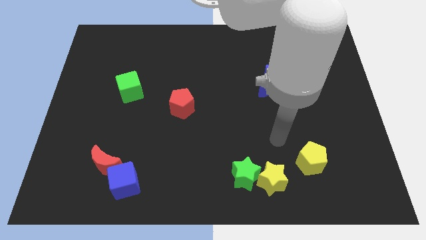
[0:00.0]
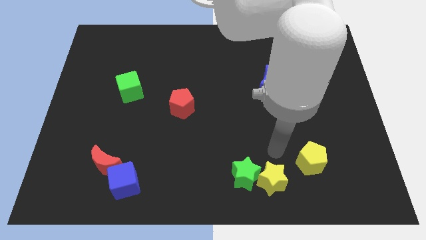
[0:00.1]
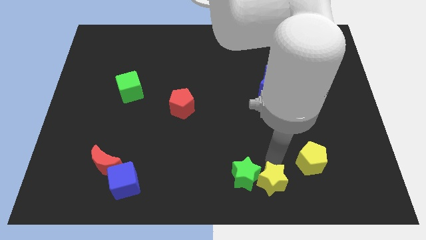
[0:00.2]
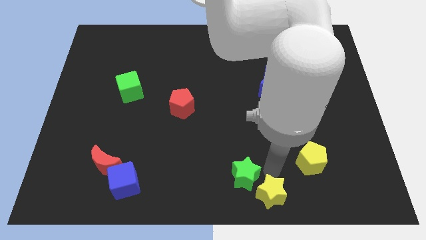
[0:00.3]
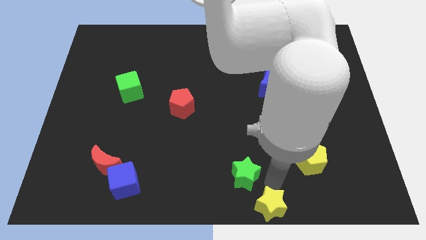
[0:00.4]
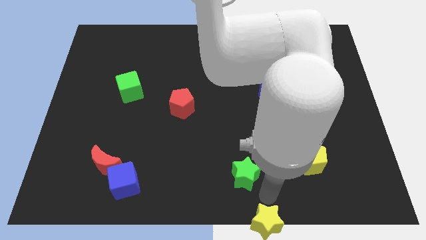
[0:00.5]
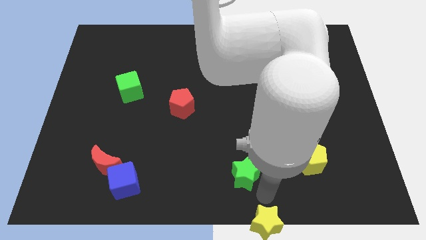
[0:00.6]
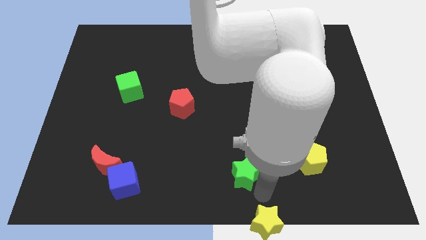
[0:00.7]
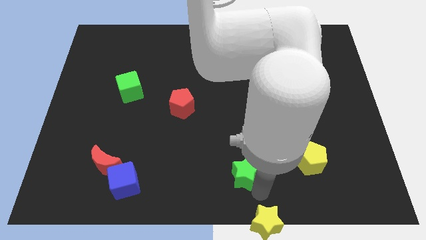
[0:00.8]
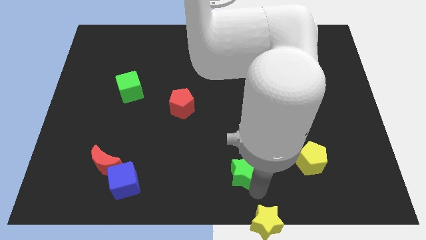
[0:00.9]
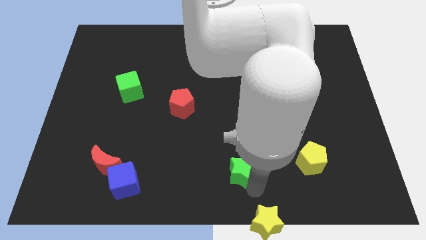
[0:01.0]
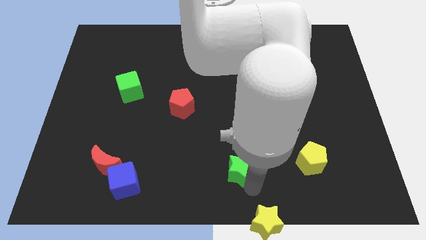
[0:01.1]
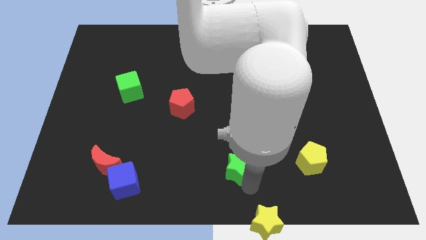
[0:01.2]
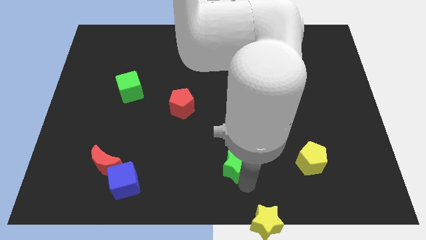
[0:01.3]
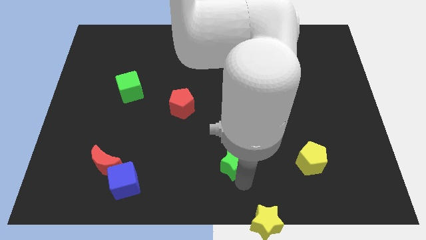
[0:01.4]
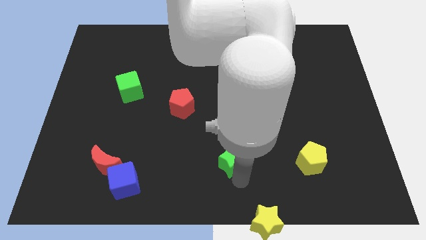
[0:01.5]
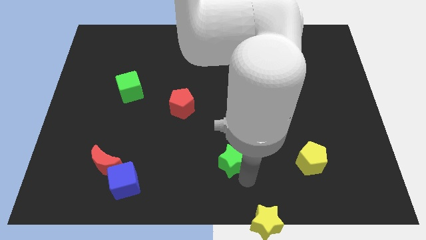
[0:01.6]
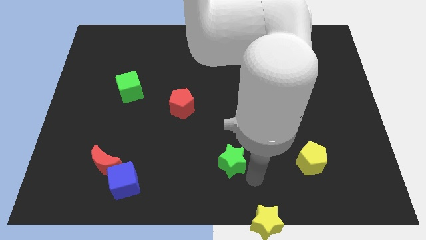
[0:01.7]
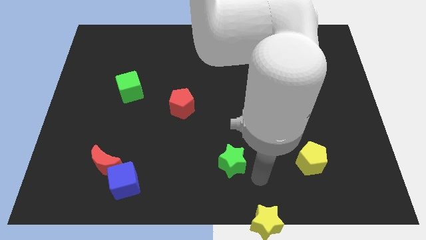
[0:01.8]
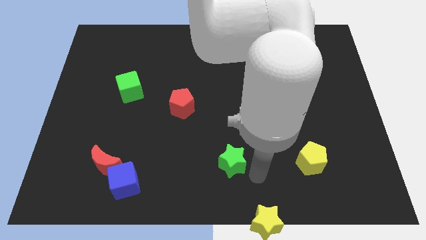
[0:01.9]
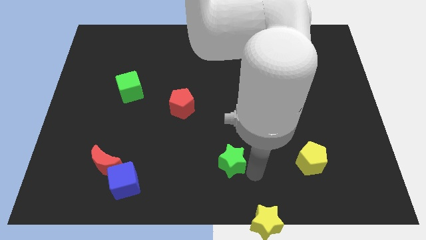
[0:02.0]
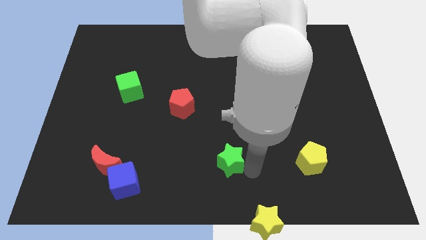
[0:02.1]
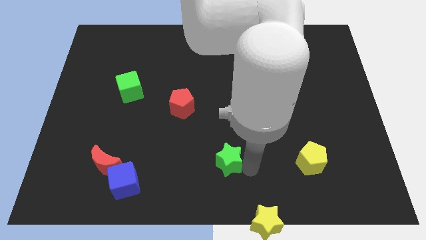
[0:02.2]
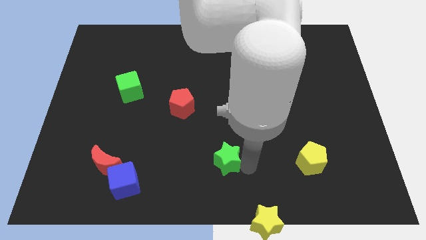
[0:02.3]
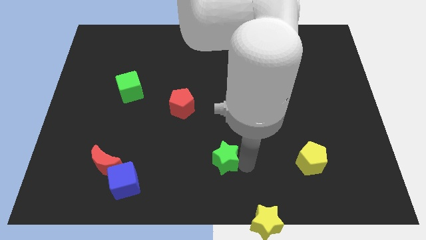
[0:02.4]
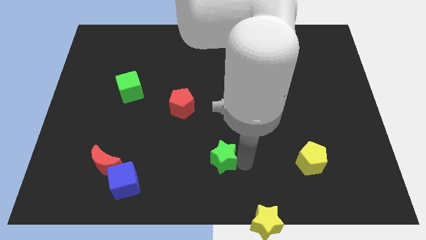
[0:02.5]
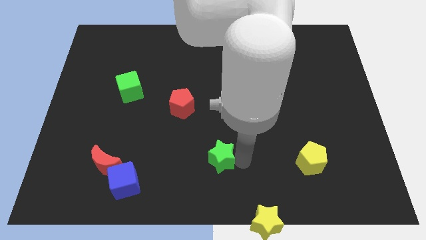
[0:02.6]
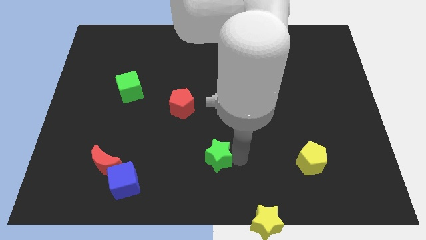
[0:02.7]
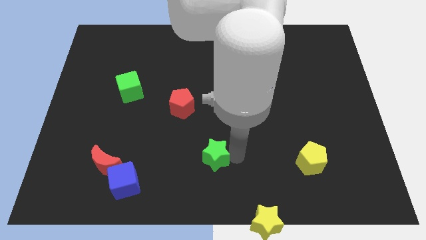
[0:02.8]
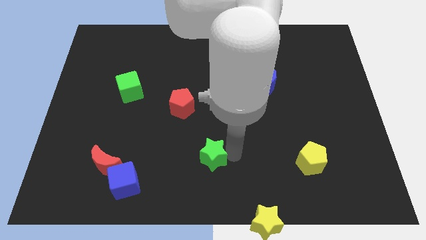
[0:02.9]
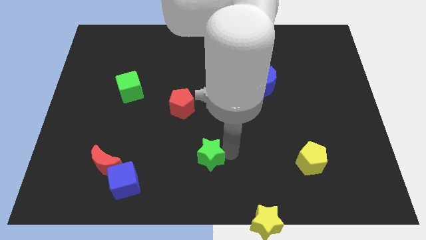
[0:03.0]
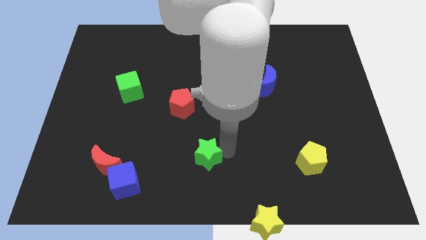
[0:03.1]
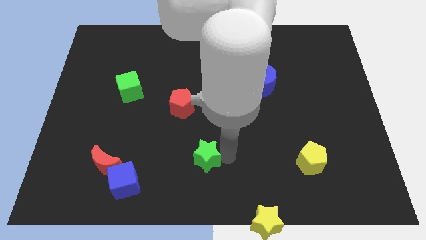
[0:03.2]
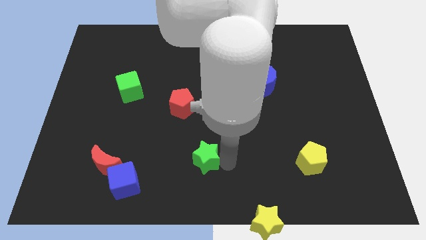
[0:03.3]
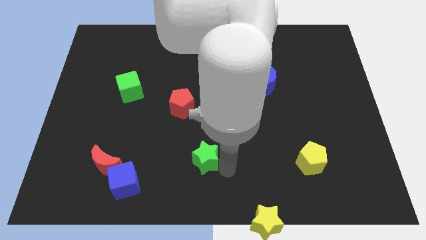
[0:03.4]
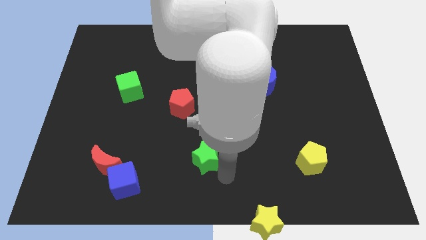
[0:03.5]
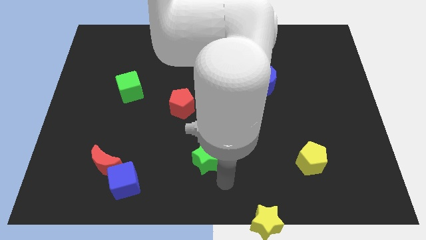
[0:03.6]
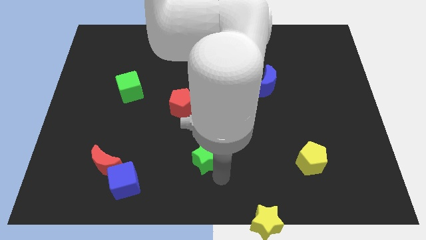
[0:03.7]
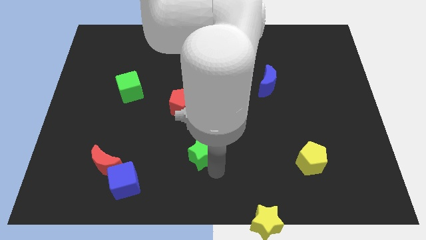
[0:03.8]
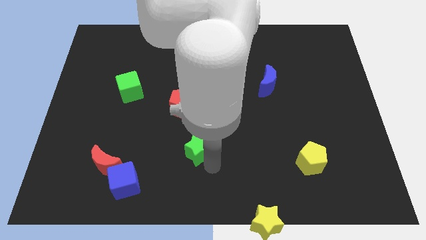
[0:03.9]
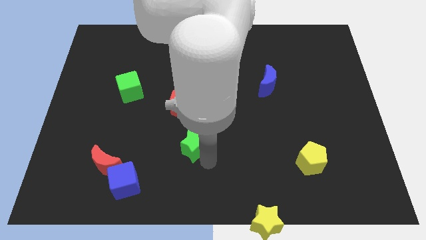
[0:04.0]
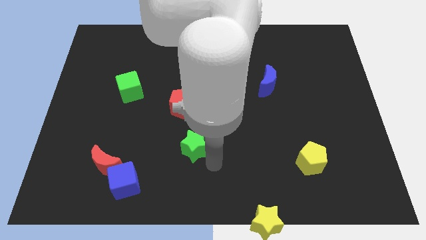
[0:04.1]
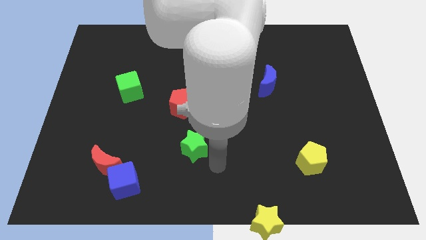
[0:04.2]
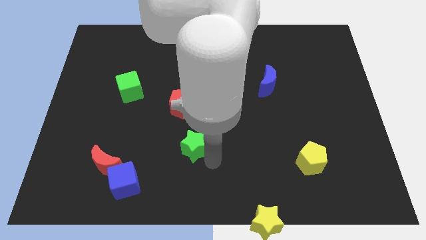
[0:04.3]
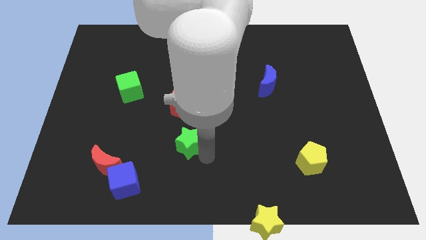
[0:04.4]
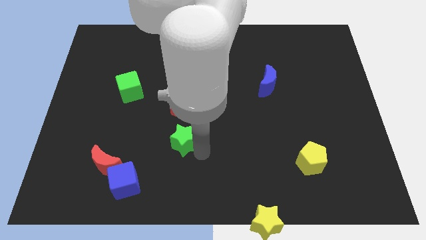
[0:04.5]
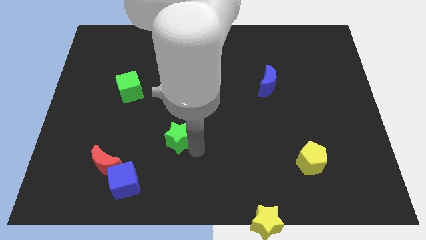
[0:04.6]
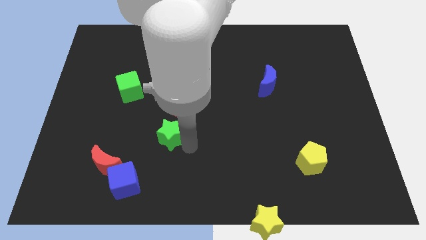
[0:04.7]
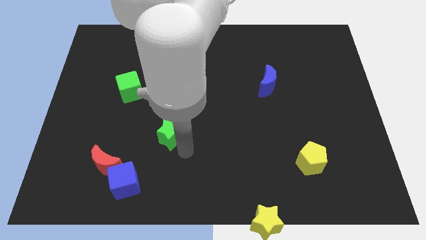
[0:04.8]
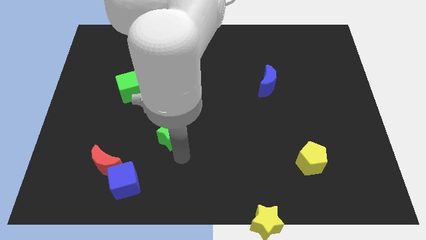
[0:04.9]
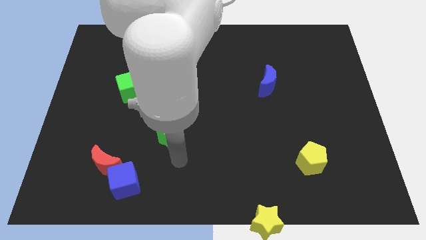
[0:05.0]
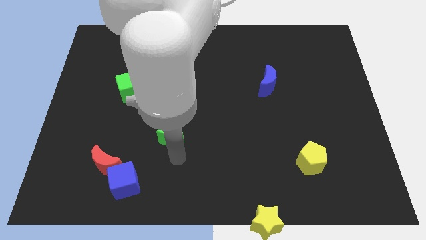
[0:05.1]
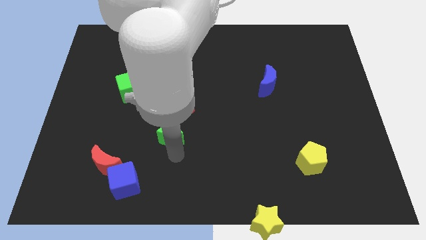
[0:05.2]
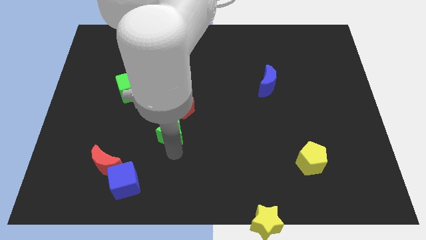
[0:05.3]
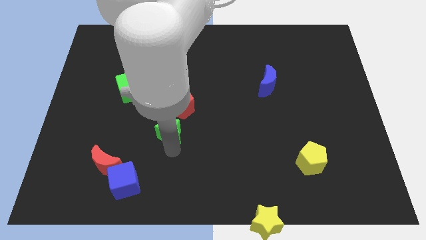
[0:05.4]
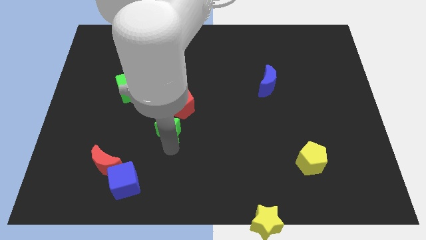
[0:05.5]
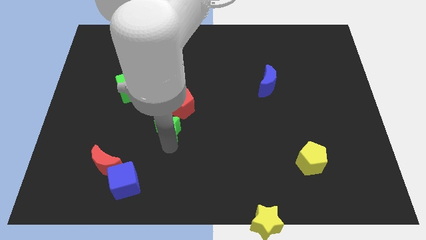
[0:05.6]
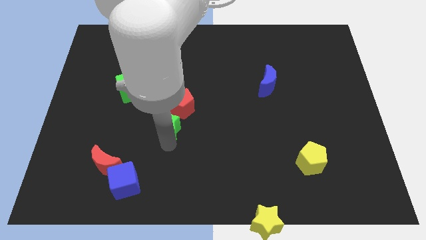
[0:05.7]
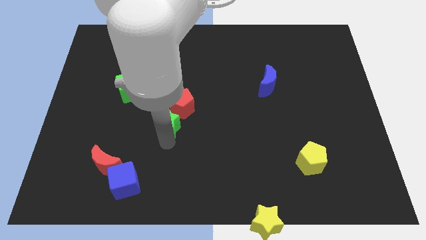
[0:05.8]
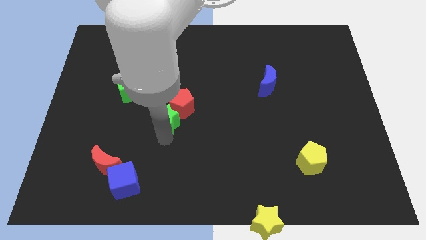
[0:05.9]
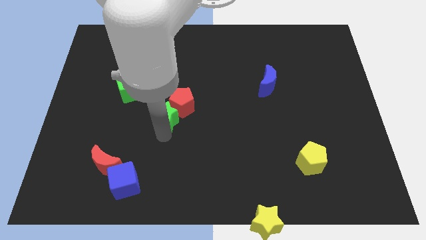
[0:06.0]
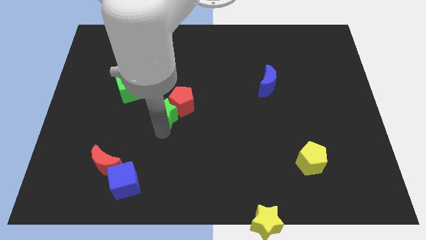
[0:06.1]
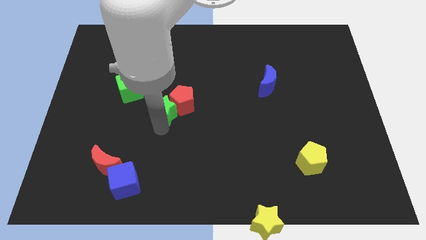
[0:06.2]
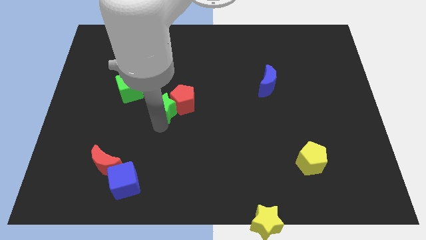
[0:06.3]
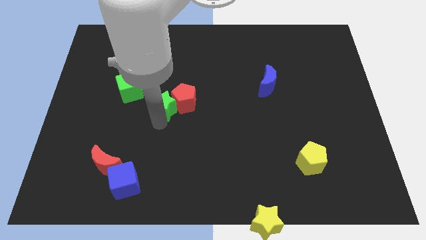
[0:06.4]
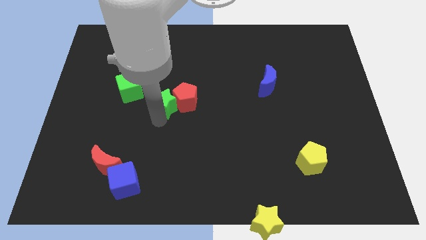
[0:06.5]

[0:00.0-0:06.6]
push the green star right of the green cube

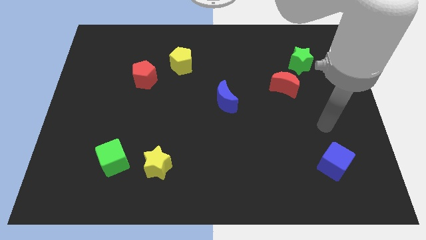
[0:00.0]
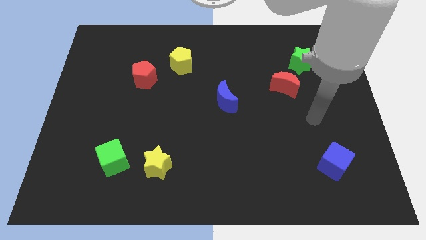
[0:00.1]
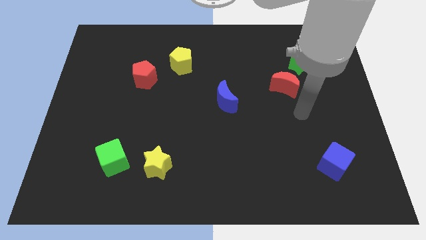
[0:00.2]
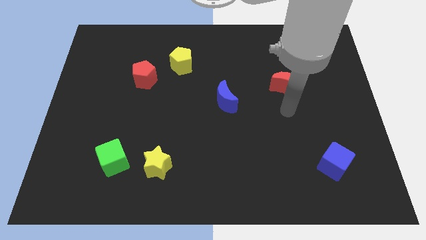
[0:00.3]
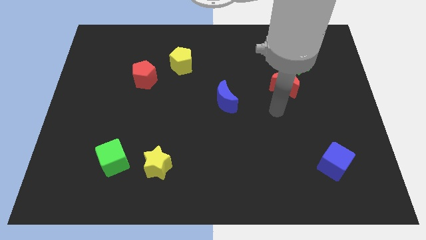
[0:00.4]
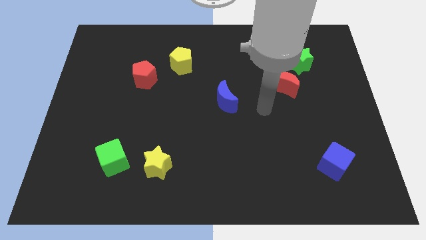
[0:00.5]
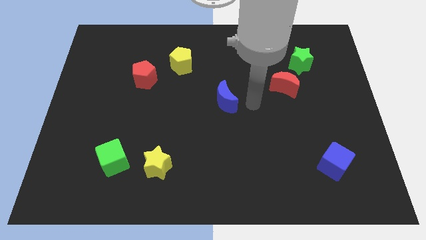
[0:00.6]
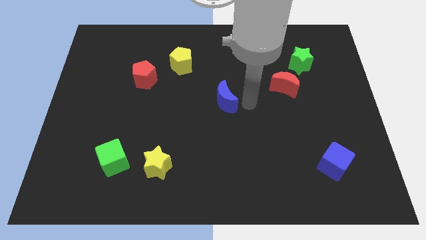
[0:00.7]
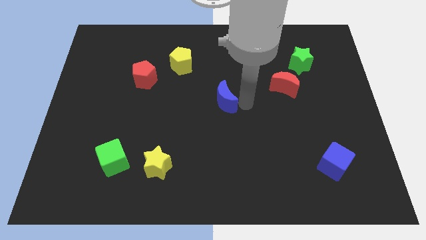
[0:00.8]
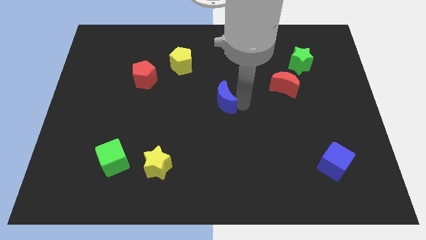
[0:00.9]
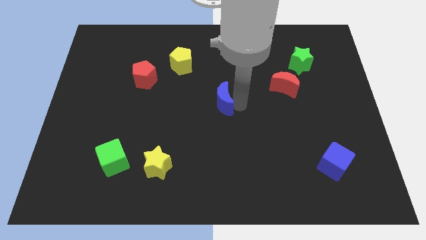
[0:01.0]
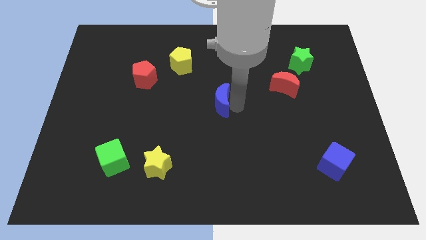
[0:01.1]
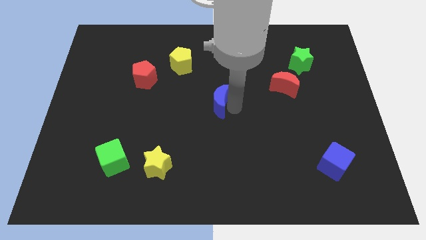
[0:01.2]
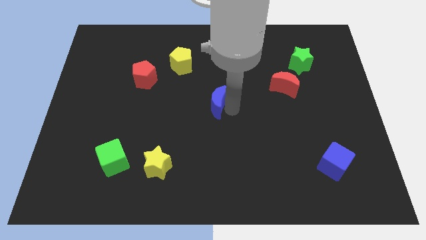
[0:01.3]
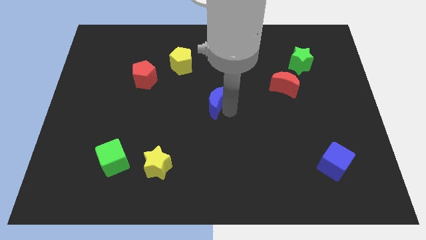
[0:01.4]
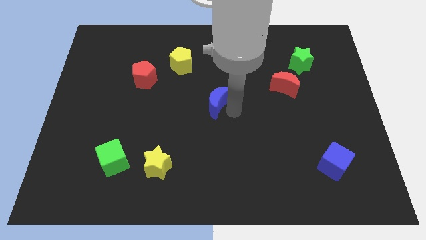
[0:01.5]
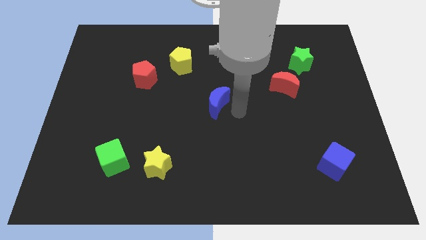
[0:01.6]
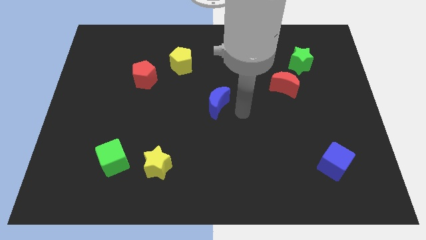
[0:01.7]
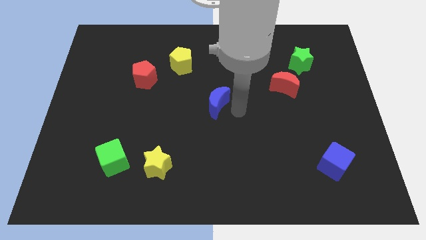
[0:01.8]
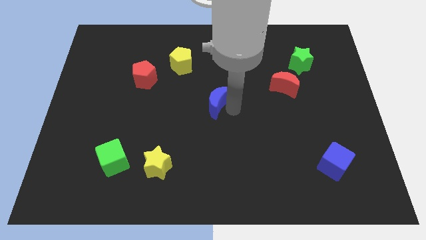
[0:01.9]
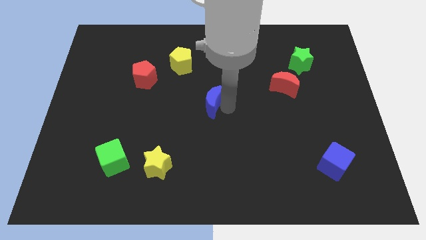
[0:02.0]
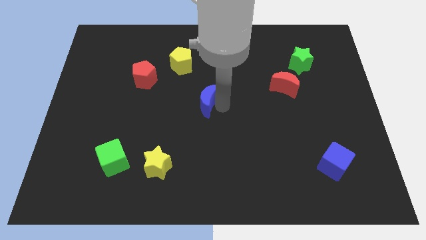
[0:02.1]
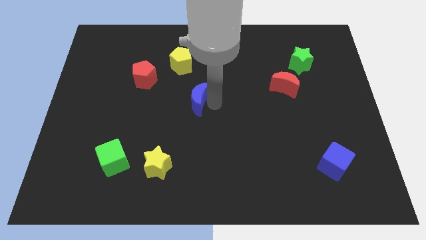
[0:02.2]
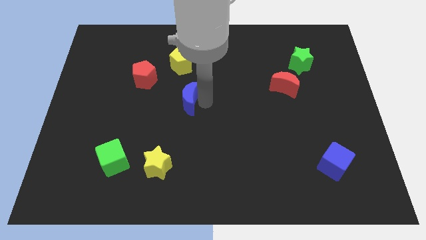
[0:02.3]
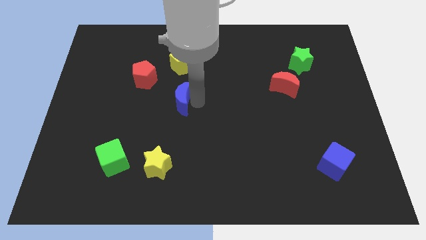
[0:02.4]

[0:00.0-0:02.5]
move the blue moon to the bottom right side of the red pentagon
